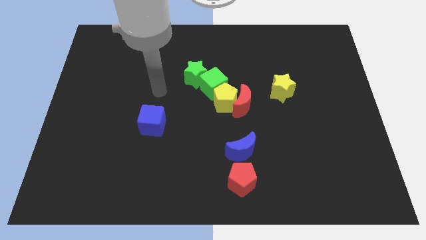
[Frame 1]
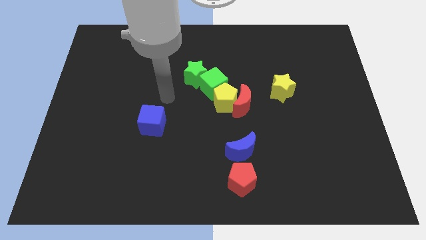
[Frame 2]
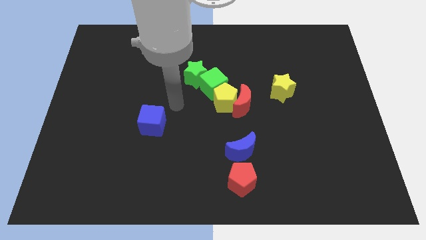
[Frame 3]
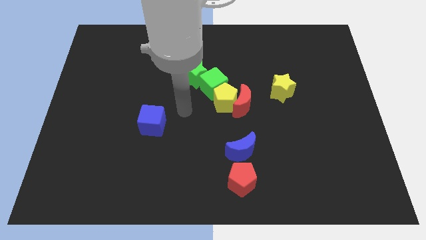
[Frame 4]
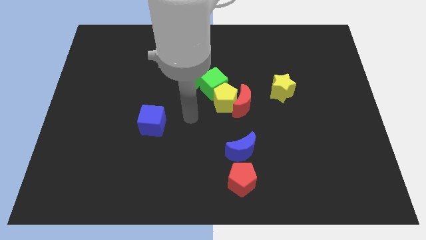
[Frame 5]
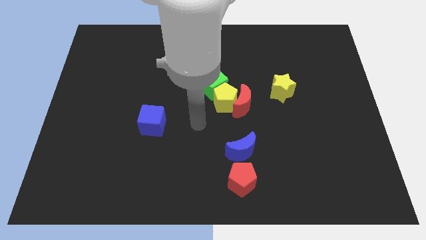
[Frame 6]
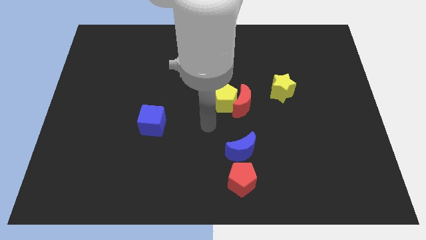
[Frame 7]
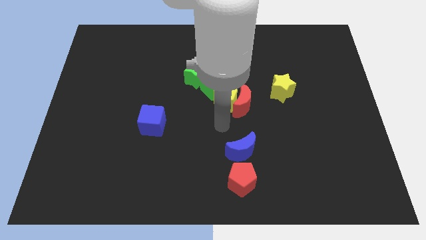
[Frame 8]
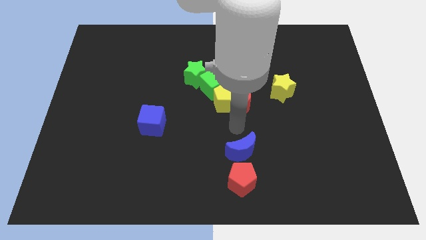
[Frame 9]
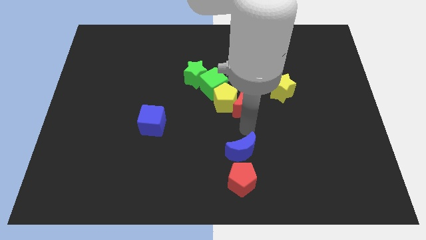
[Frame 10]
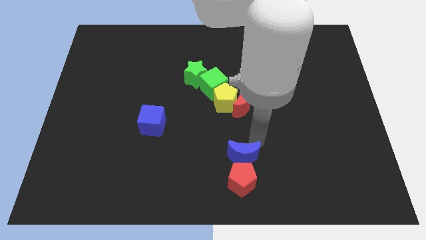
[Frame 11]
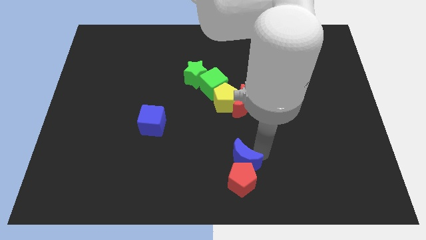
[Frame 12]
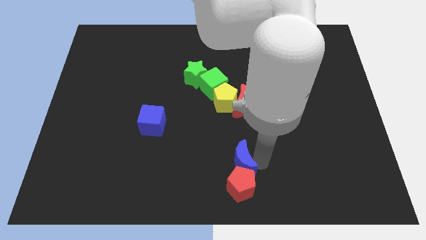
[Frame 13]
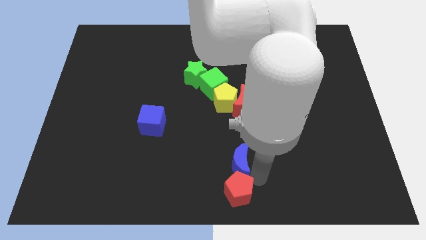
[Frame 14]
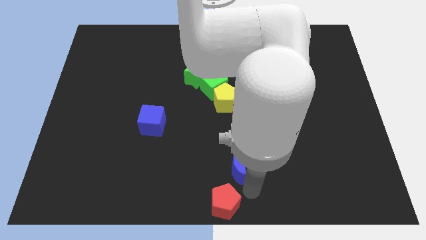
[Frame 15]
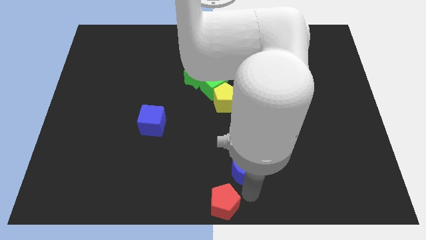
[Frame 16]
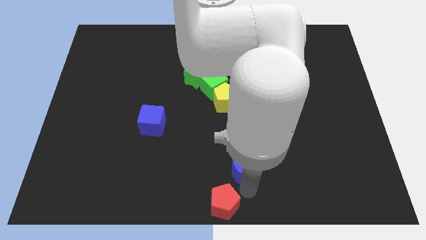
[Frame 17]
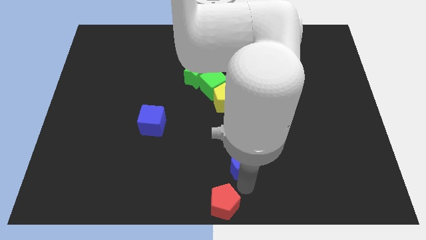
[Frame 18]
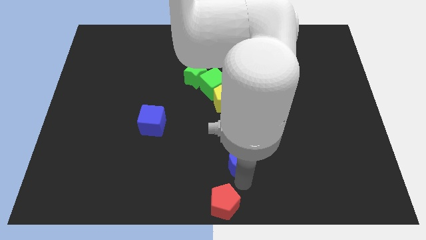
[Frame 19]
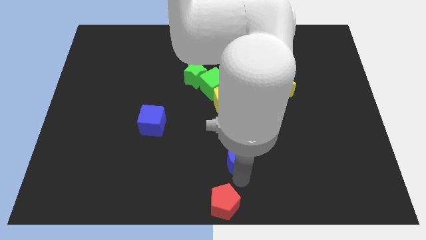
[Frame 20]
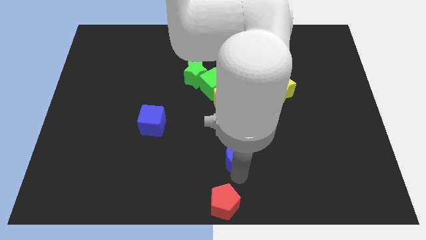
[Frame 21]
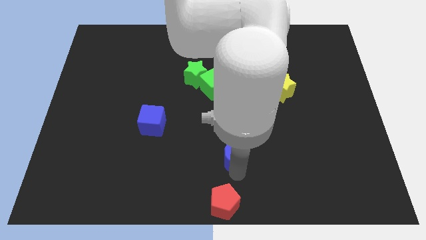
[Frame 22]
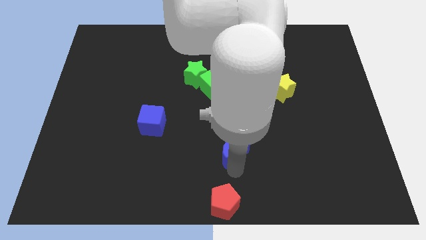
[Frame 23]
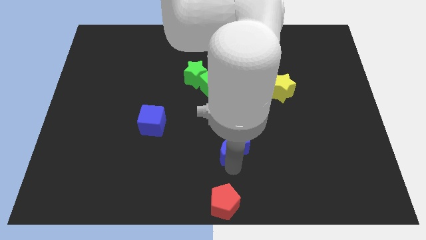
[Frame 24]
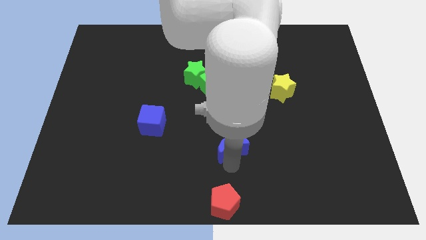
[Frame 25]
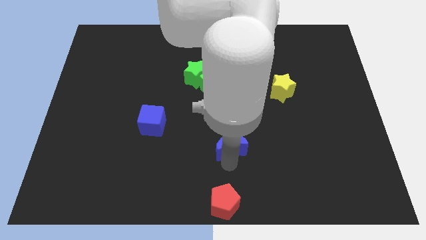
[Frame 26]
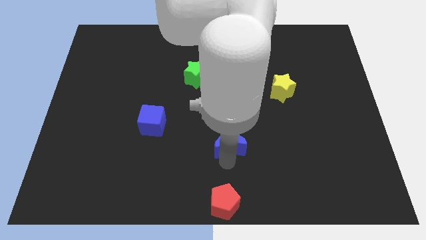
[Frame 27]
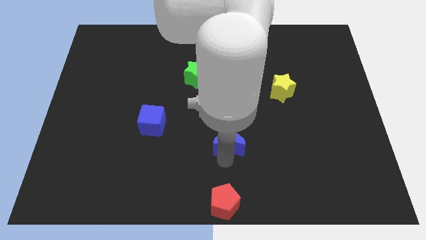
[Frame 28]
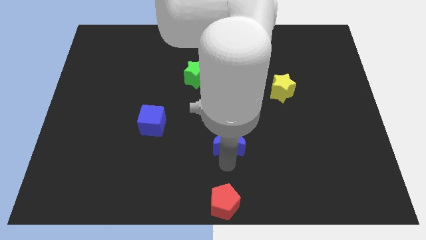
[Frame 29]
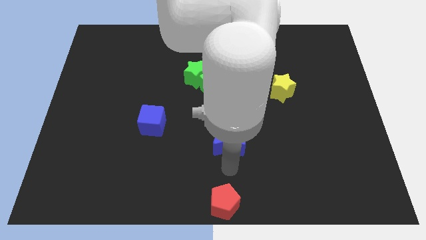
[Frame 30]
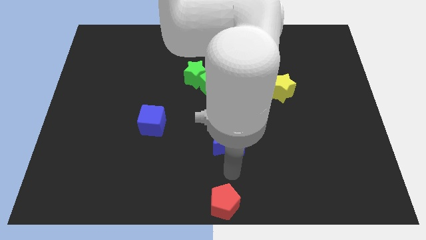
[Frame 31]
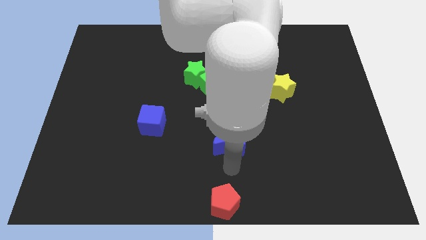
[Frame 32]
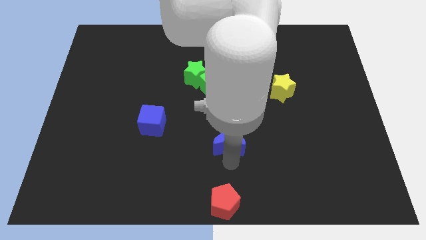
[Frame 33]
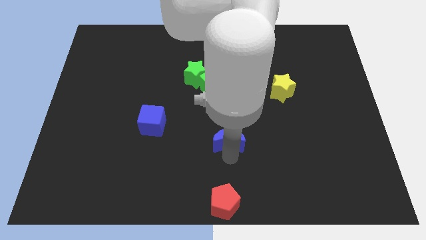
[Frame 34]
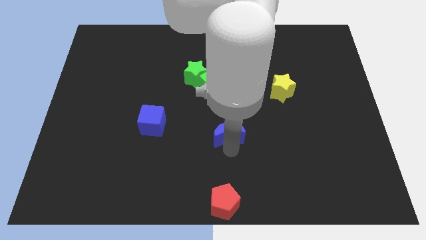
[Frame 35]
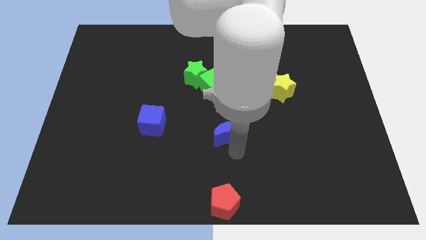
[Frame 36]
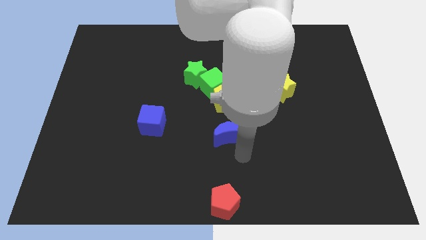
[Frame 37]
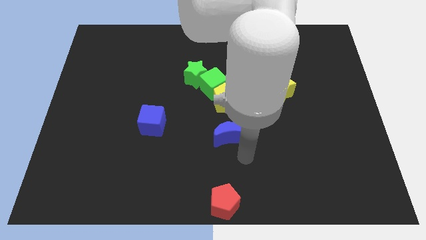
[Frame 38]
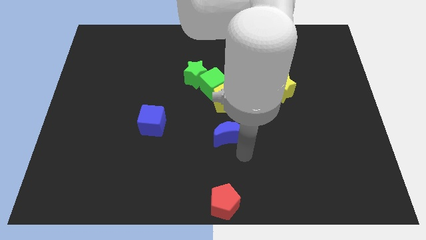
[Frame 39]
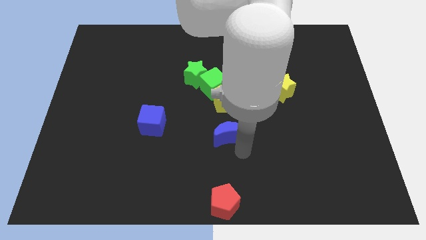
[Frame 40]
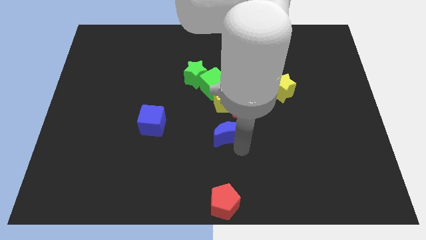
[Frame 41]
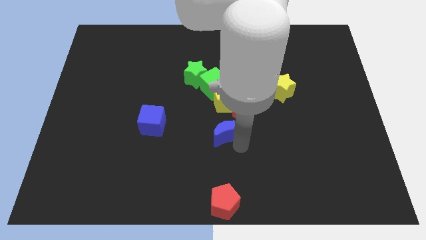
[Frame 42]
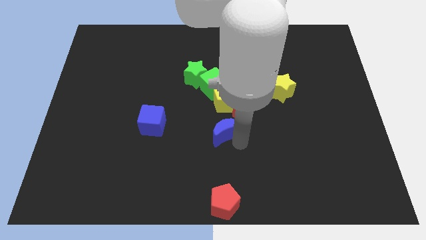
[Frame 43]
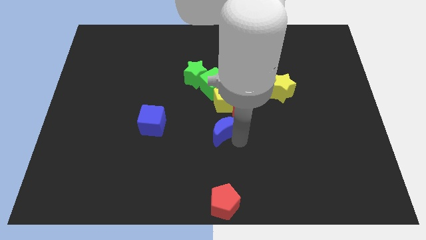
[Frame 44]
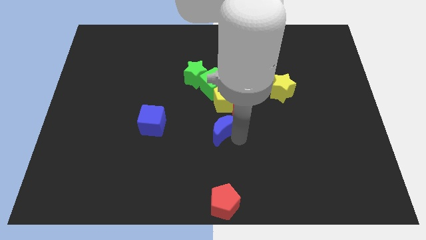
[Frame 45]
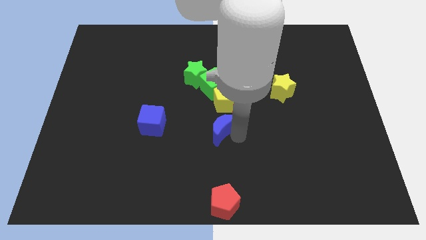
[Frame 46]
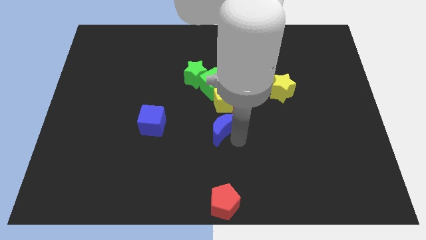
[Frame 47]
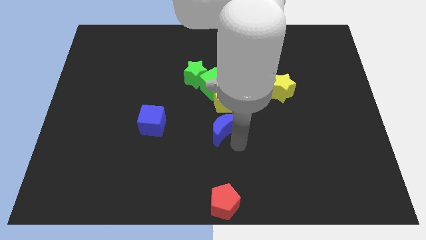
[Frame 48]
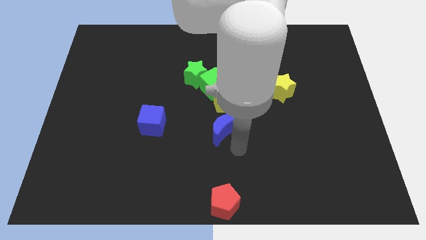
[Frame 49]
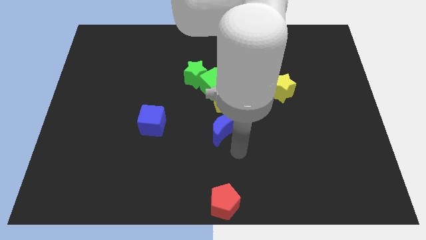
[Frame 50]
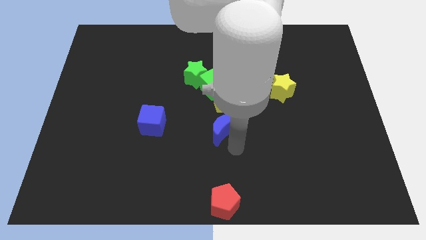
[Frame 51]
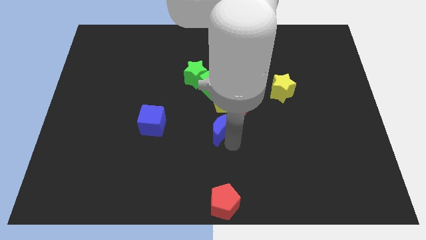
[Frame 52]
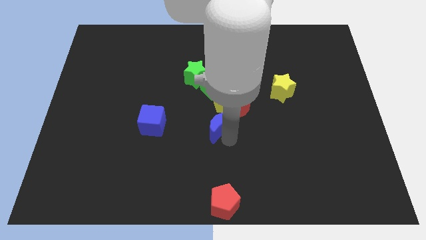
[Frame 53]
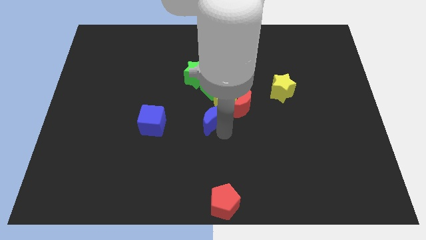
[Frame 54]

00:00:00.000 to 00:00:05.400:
put the blue moon to the left of the red moon

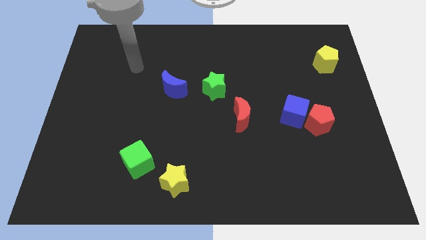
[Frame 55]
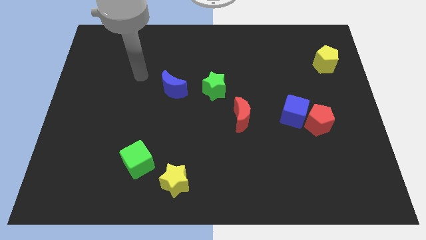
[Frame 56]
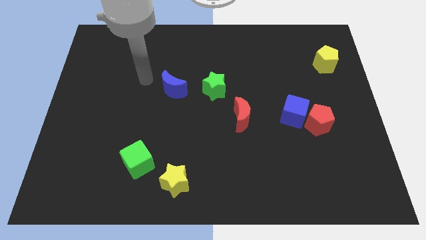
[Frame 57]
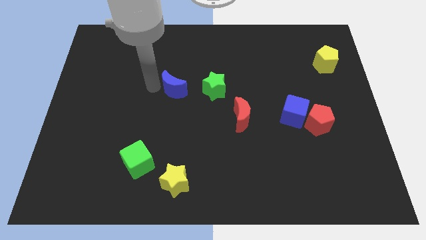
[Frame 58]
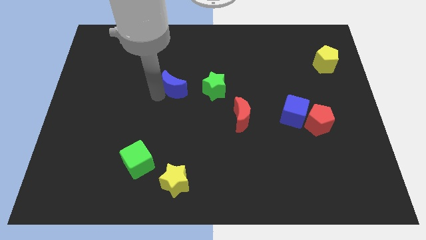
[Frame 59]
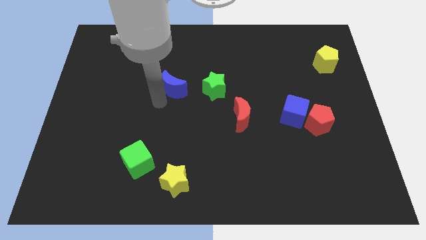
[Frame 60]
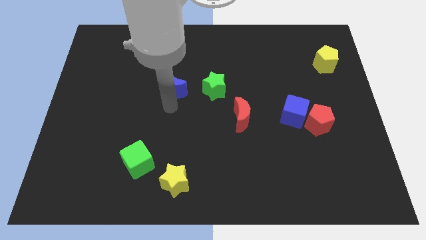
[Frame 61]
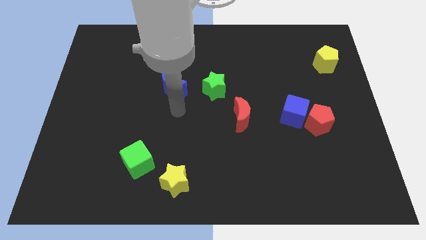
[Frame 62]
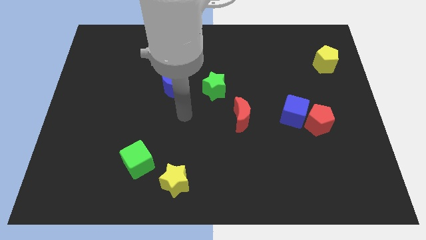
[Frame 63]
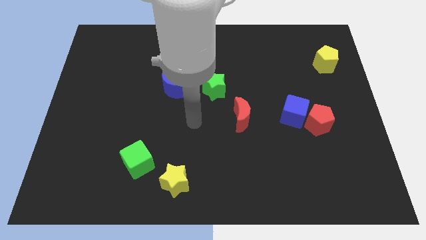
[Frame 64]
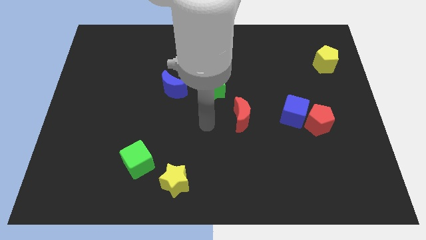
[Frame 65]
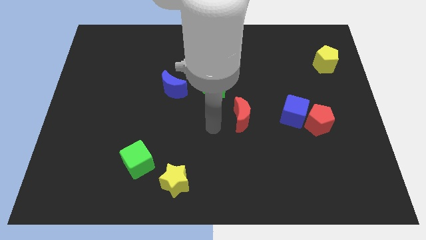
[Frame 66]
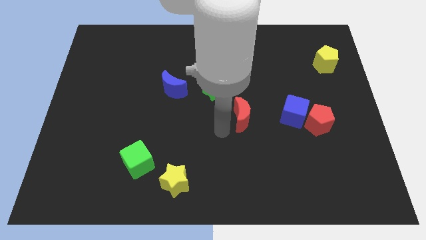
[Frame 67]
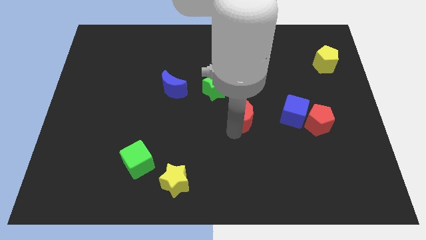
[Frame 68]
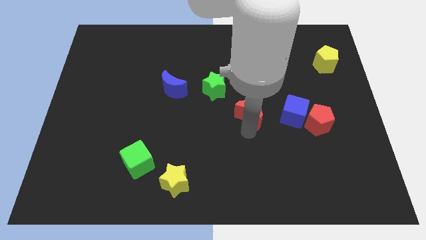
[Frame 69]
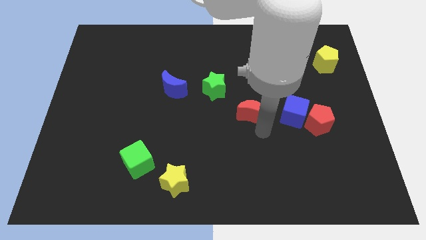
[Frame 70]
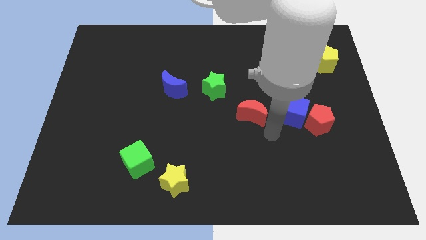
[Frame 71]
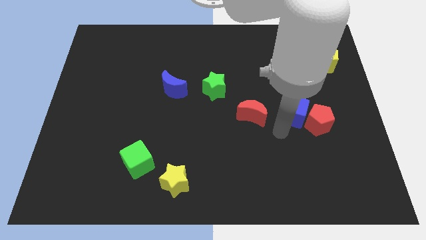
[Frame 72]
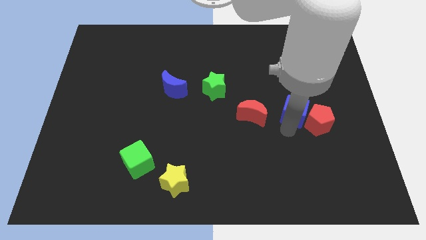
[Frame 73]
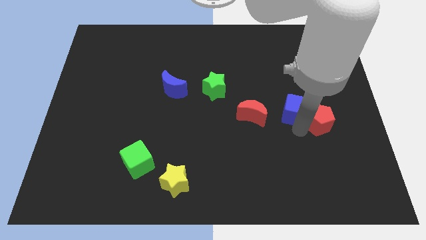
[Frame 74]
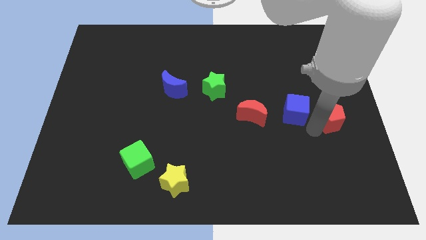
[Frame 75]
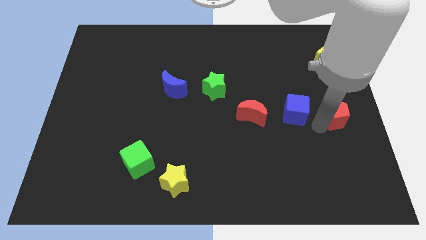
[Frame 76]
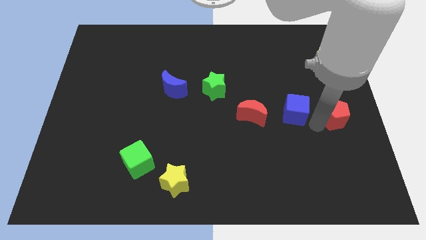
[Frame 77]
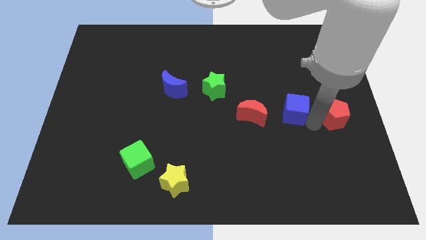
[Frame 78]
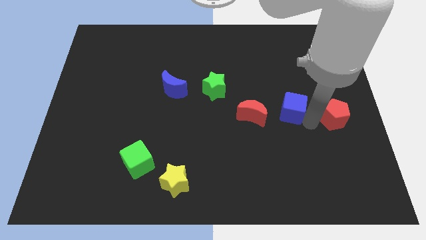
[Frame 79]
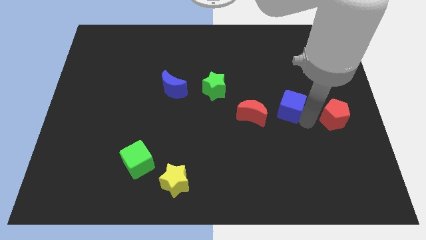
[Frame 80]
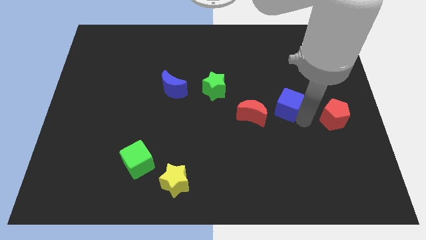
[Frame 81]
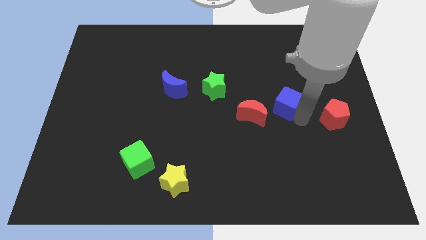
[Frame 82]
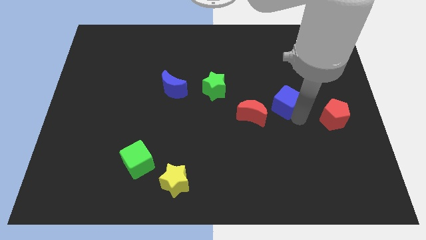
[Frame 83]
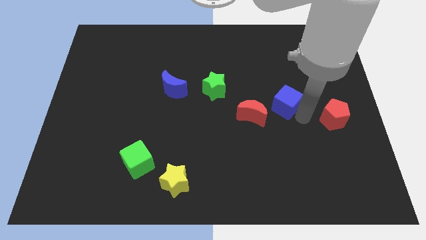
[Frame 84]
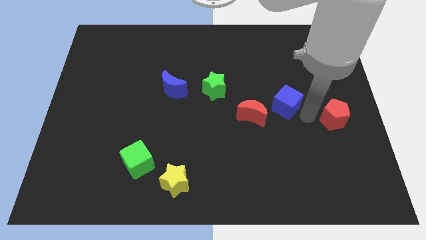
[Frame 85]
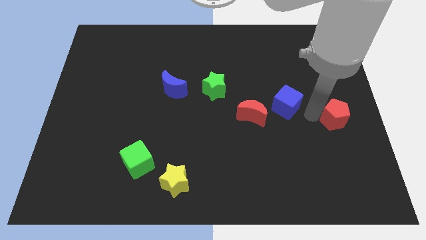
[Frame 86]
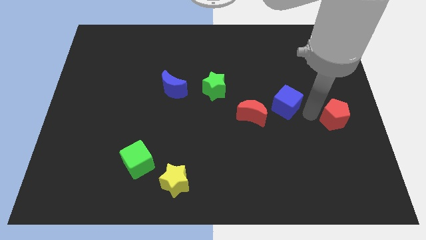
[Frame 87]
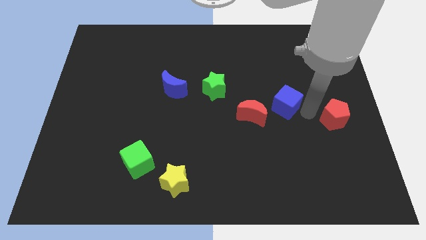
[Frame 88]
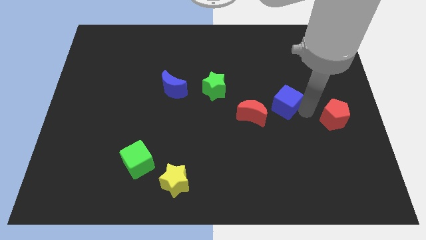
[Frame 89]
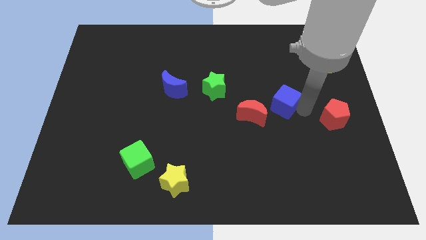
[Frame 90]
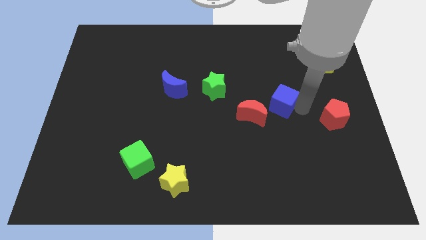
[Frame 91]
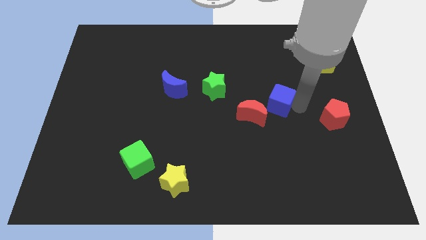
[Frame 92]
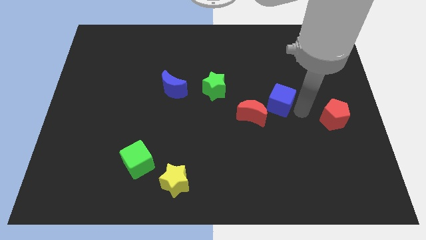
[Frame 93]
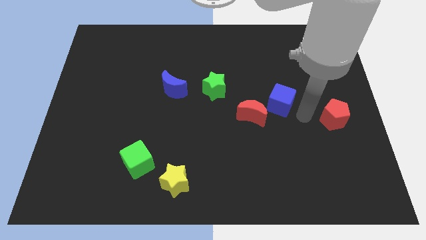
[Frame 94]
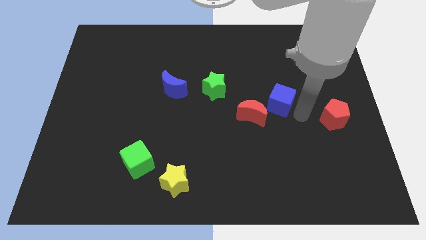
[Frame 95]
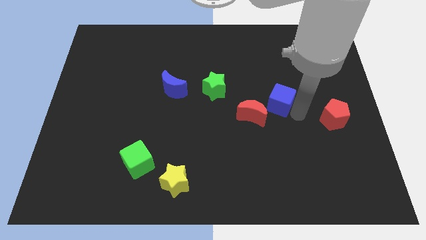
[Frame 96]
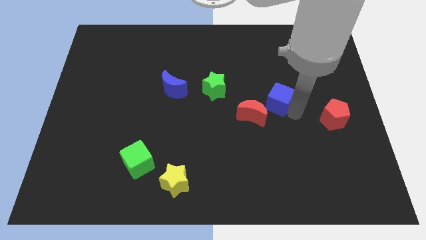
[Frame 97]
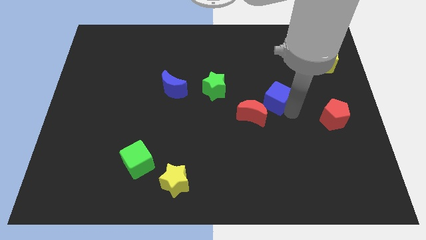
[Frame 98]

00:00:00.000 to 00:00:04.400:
put the blue cube just right of the green star
